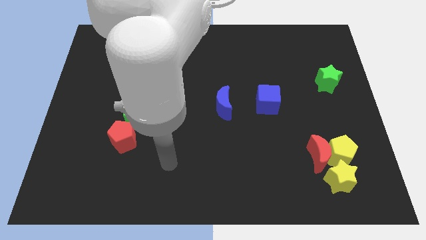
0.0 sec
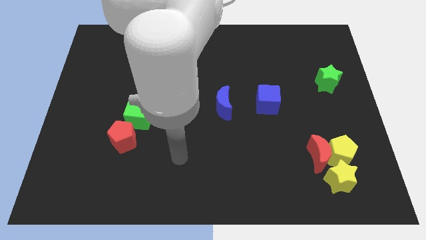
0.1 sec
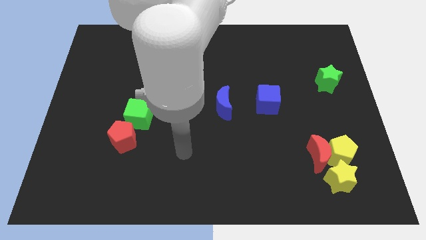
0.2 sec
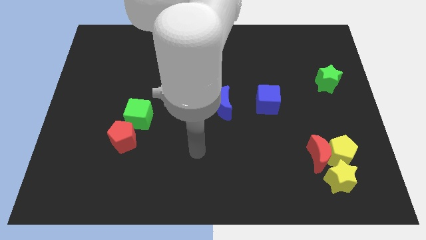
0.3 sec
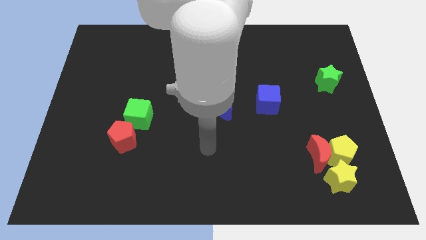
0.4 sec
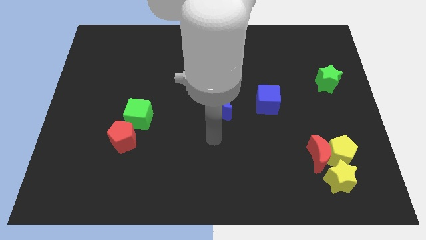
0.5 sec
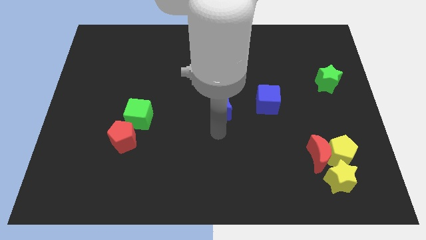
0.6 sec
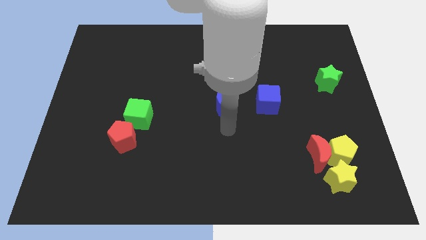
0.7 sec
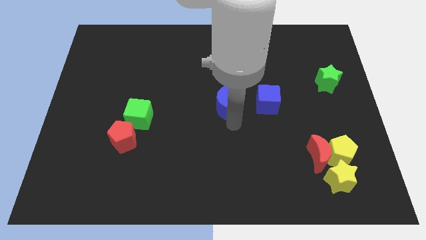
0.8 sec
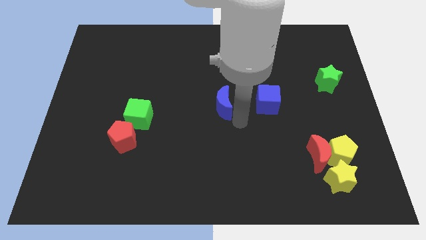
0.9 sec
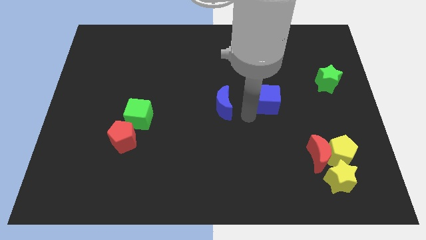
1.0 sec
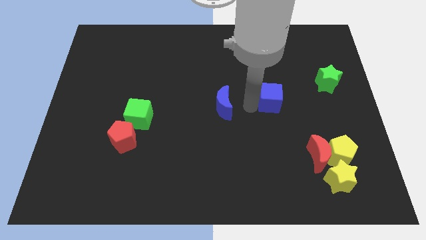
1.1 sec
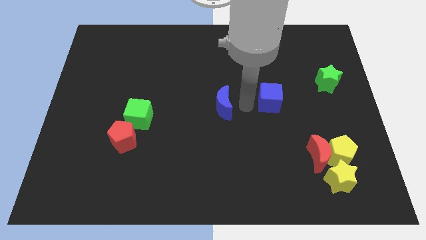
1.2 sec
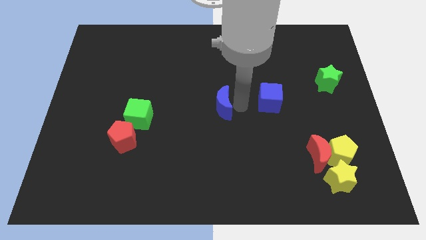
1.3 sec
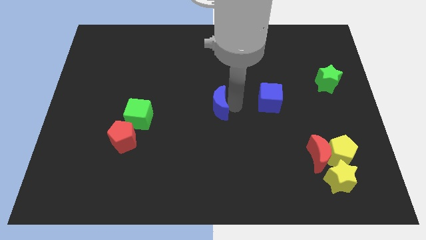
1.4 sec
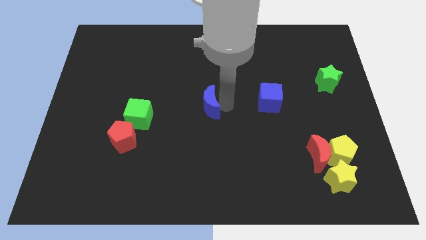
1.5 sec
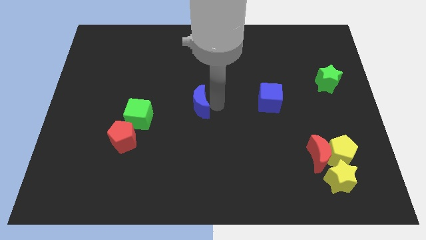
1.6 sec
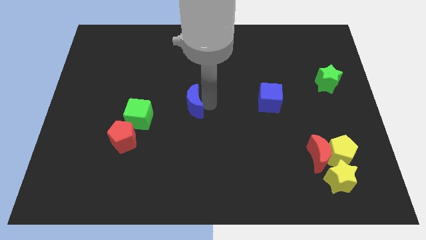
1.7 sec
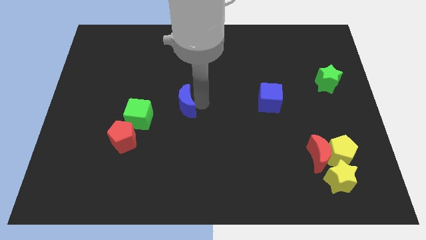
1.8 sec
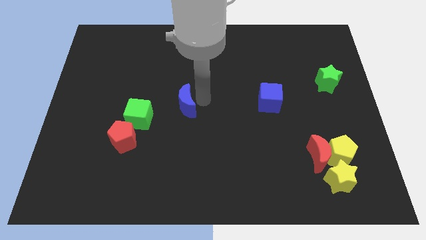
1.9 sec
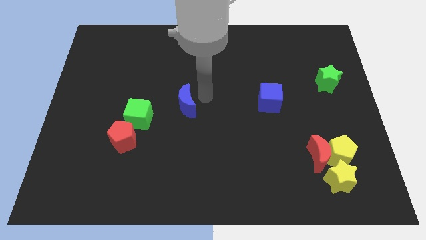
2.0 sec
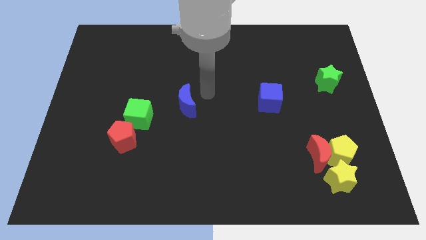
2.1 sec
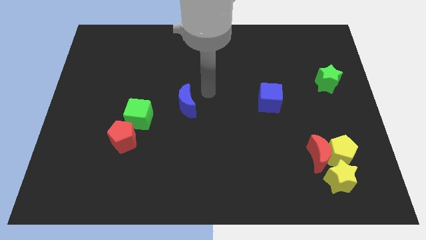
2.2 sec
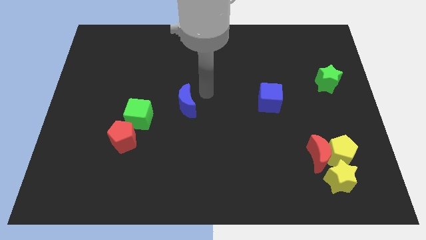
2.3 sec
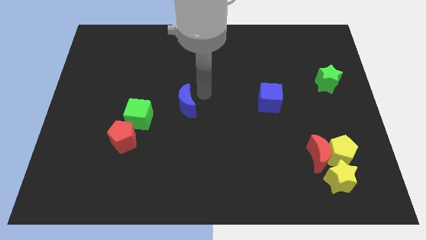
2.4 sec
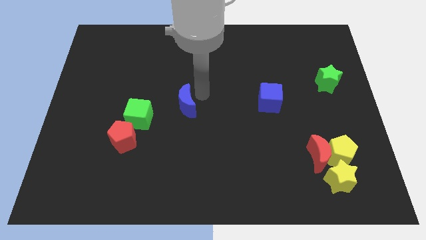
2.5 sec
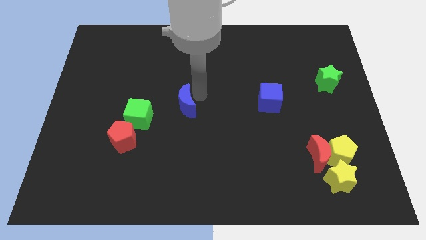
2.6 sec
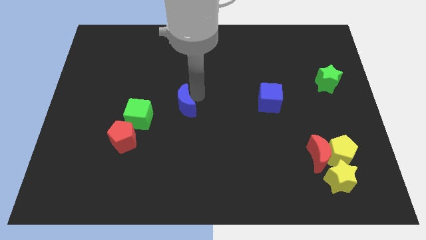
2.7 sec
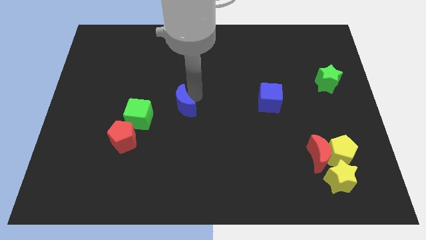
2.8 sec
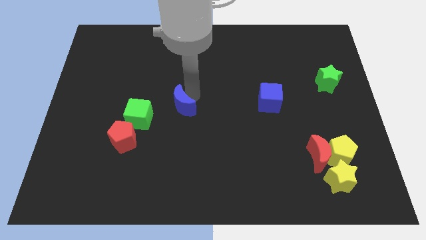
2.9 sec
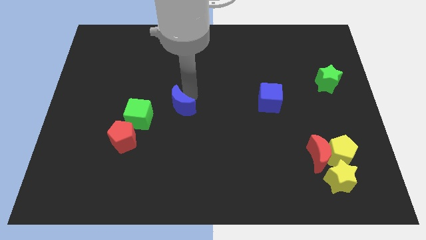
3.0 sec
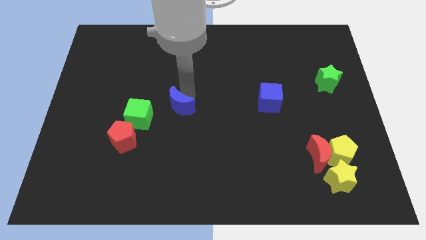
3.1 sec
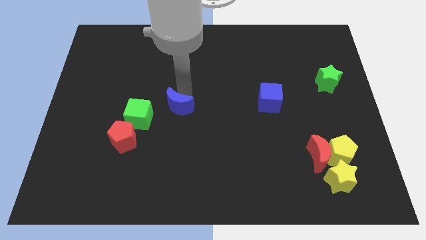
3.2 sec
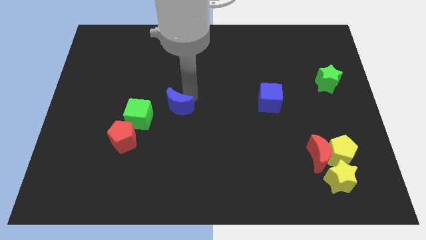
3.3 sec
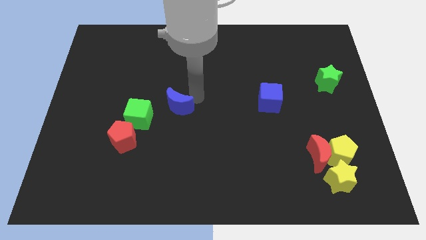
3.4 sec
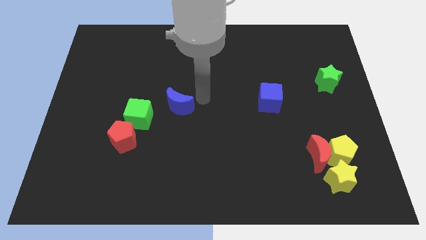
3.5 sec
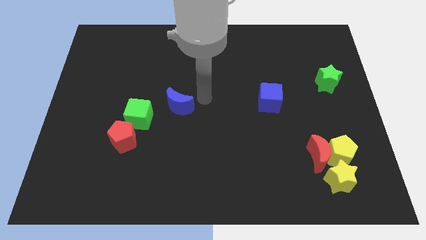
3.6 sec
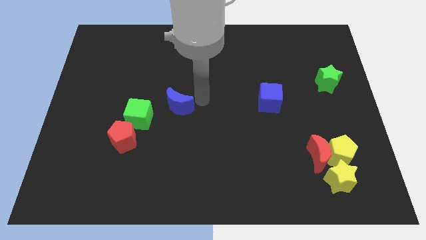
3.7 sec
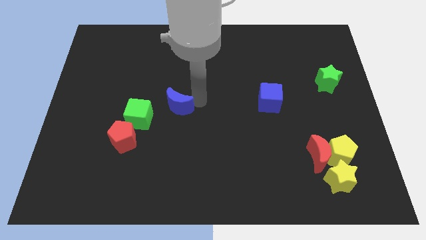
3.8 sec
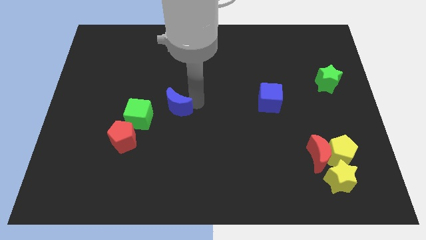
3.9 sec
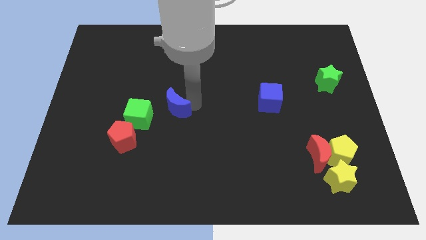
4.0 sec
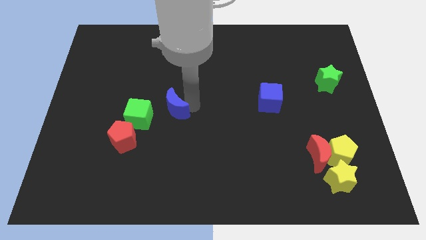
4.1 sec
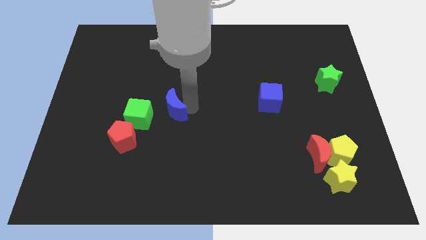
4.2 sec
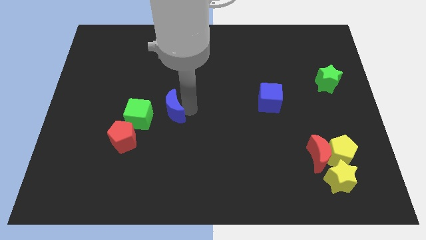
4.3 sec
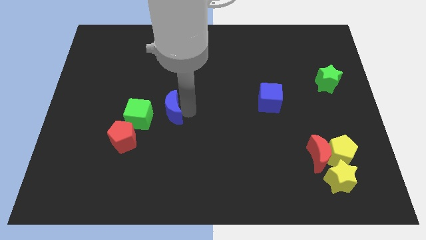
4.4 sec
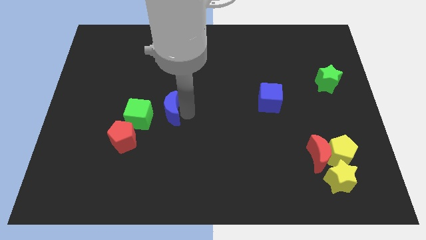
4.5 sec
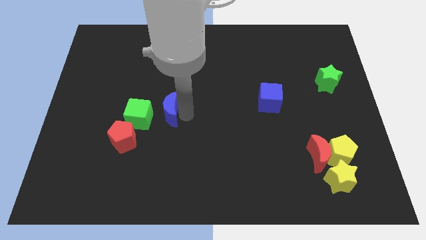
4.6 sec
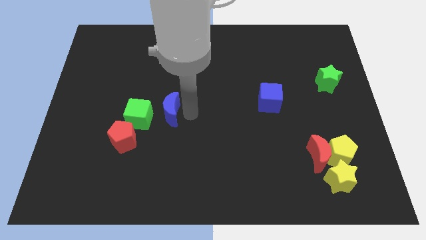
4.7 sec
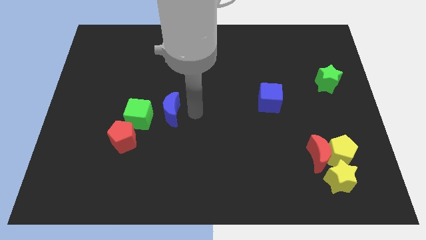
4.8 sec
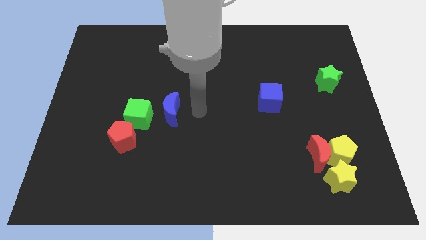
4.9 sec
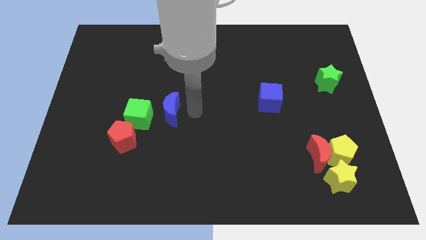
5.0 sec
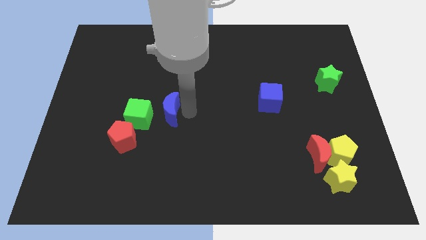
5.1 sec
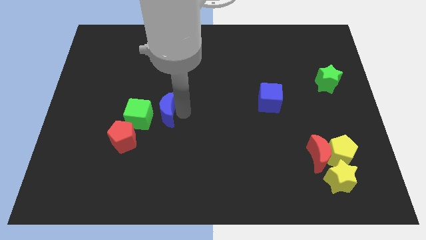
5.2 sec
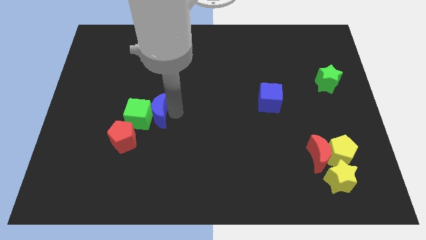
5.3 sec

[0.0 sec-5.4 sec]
put the blue moon next to the green cube

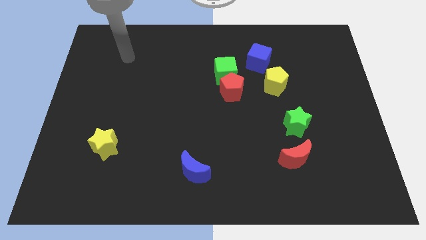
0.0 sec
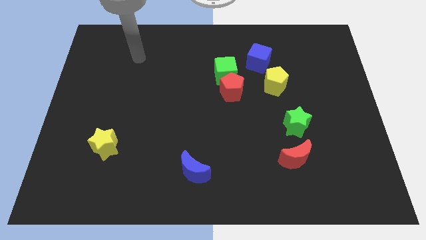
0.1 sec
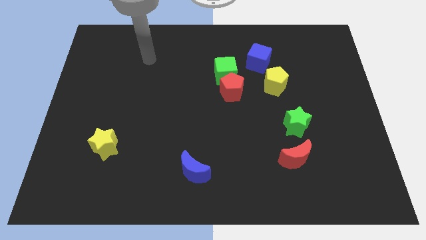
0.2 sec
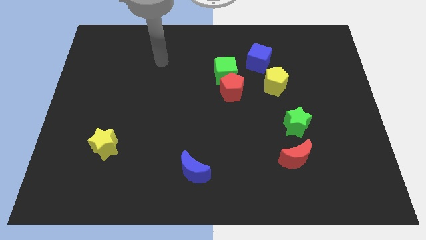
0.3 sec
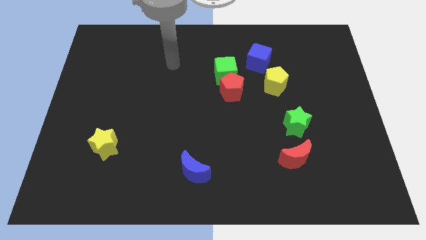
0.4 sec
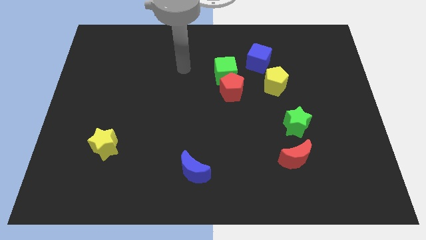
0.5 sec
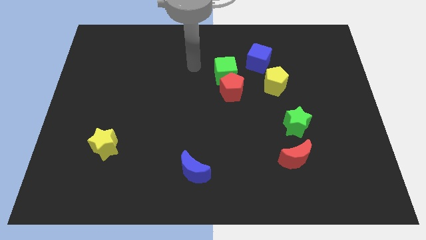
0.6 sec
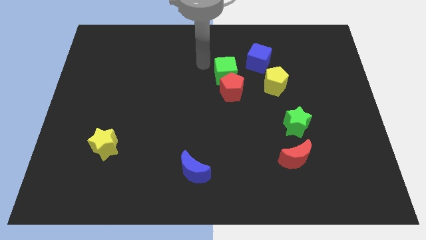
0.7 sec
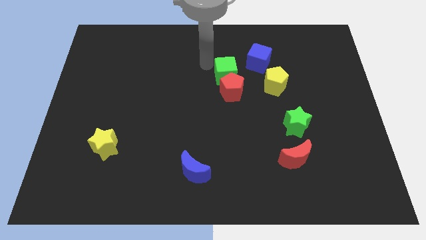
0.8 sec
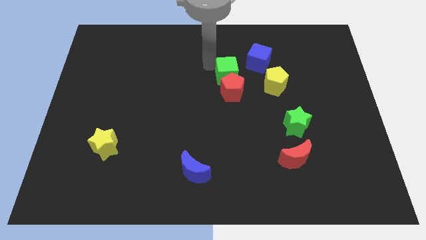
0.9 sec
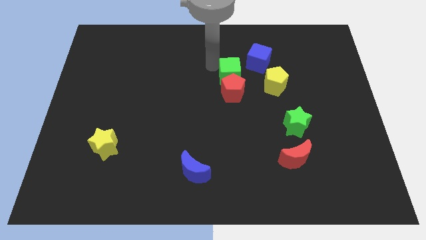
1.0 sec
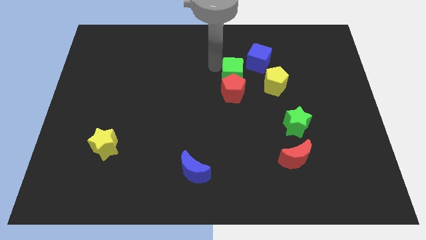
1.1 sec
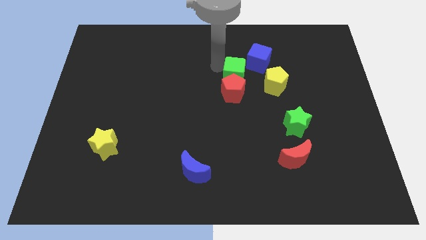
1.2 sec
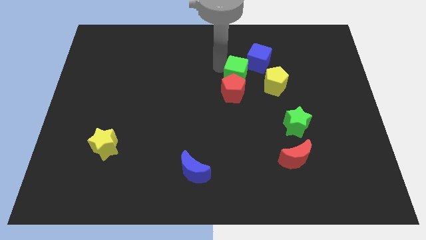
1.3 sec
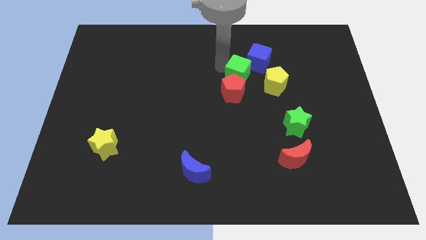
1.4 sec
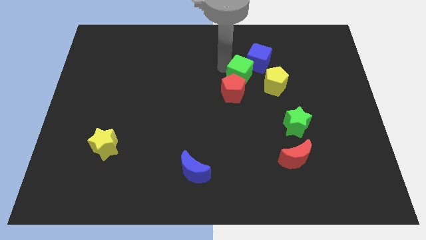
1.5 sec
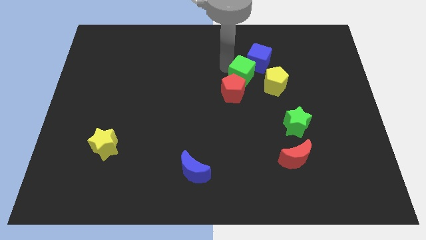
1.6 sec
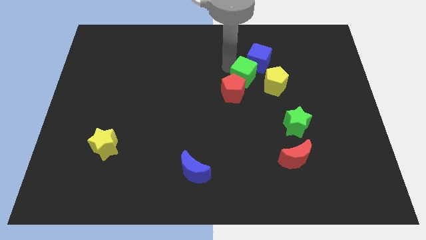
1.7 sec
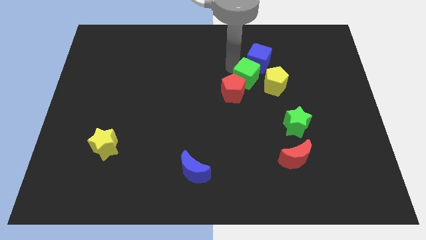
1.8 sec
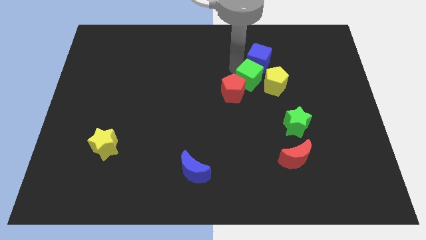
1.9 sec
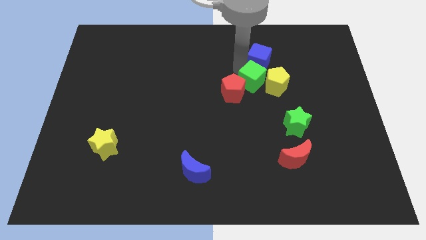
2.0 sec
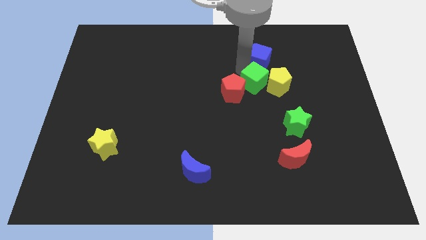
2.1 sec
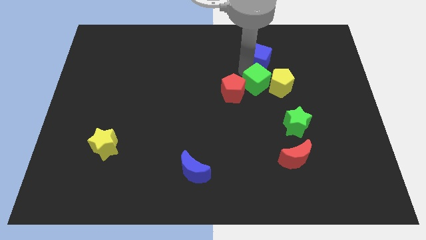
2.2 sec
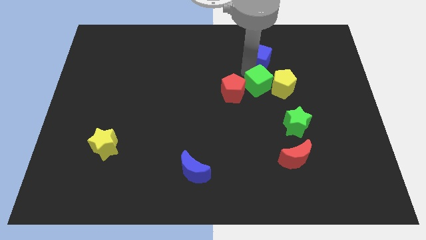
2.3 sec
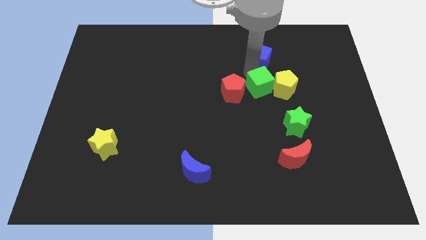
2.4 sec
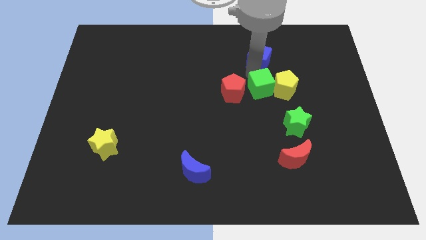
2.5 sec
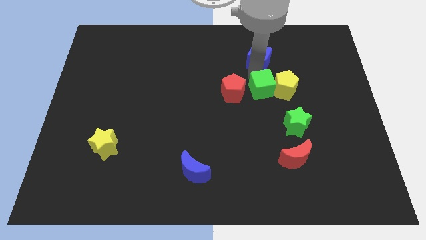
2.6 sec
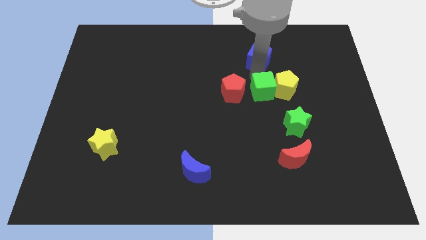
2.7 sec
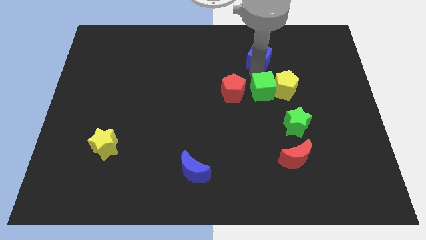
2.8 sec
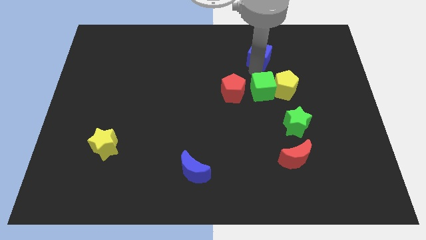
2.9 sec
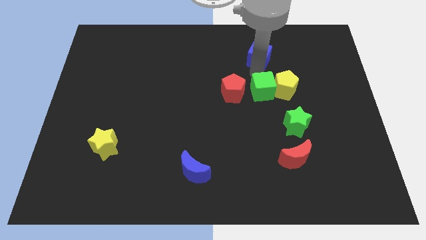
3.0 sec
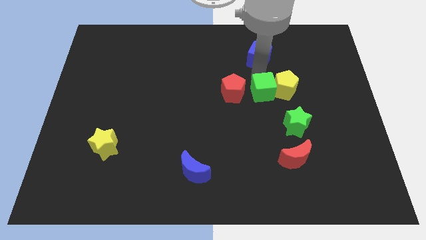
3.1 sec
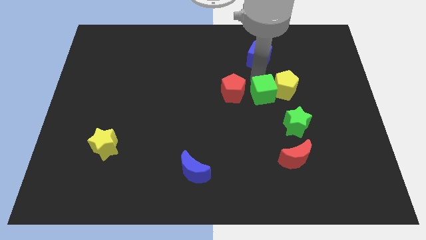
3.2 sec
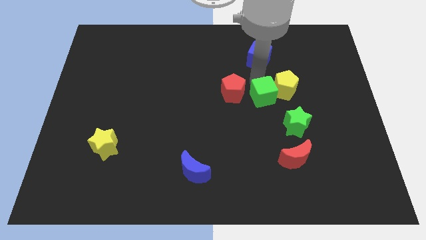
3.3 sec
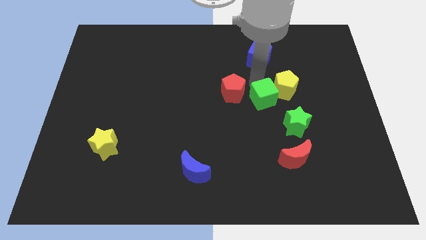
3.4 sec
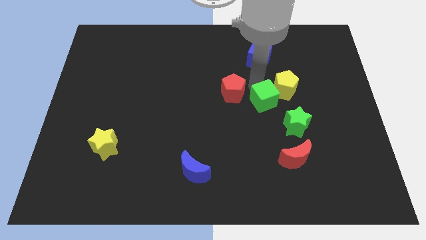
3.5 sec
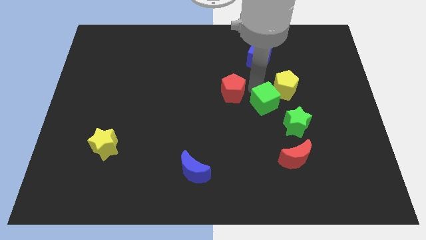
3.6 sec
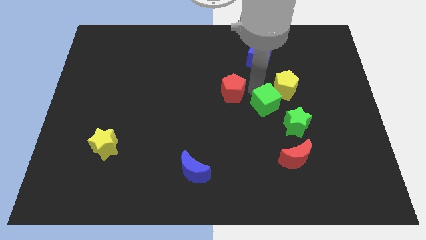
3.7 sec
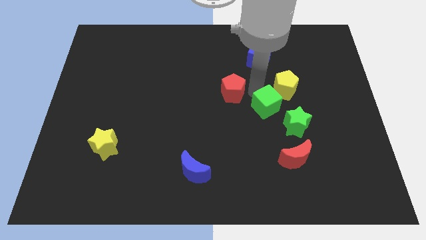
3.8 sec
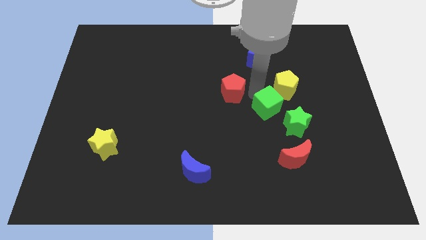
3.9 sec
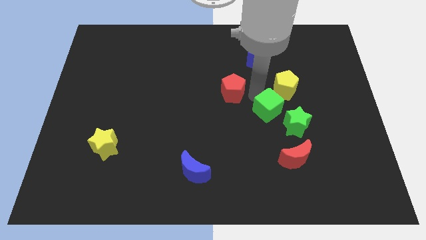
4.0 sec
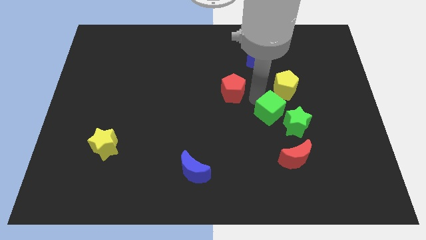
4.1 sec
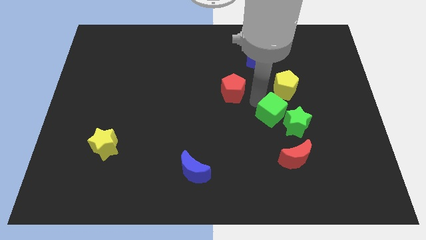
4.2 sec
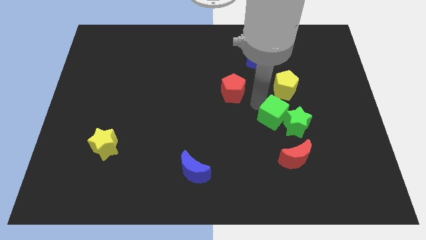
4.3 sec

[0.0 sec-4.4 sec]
slide the green cube towards the green star
